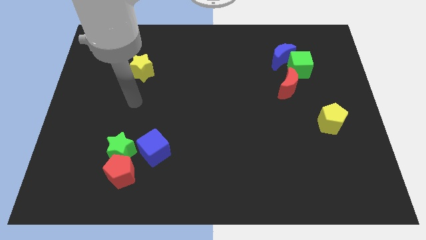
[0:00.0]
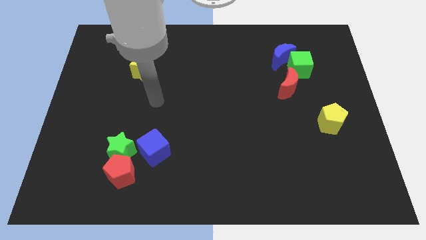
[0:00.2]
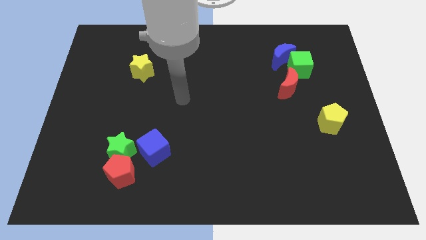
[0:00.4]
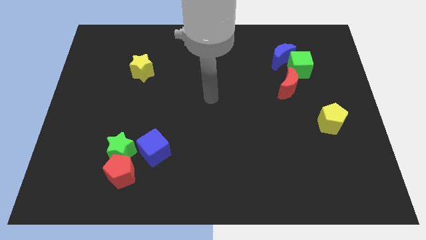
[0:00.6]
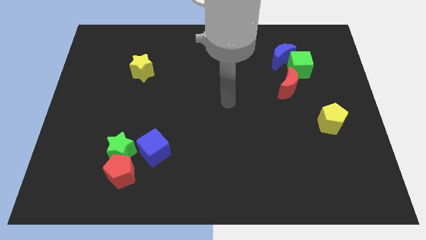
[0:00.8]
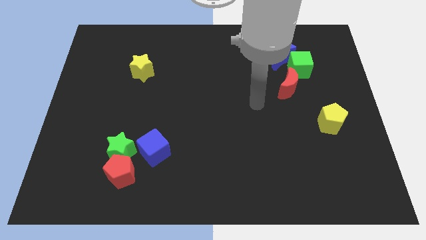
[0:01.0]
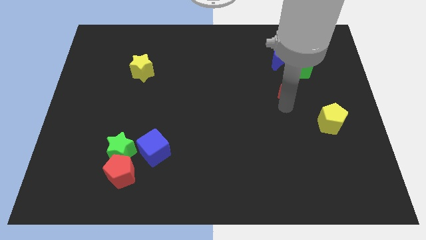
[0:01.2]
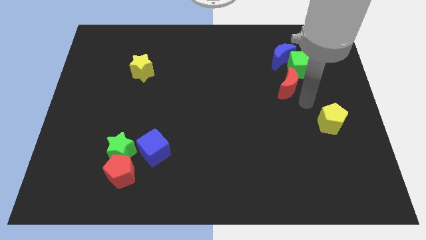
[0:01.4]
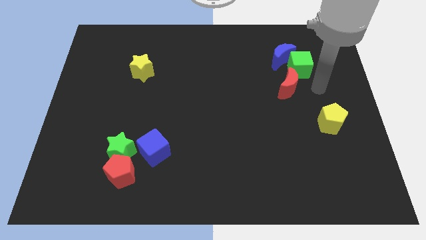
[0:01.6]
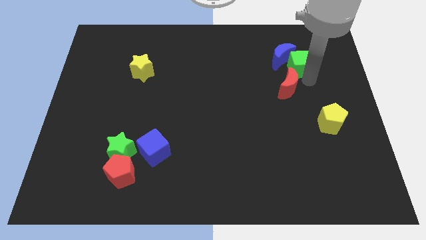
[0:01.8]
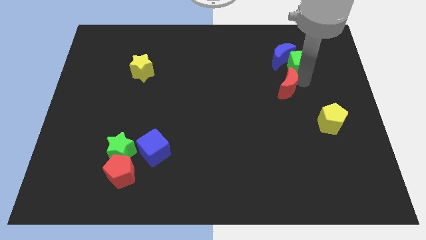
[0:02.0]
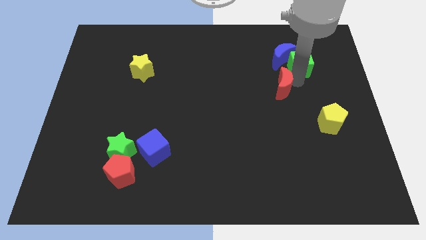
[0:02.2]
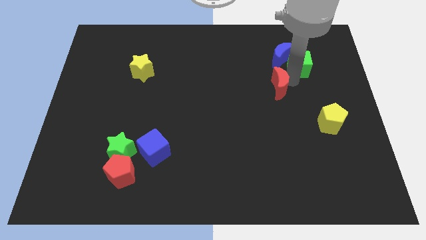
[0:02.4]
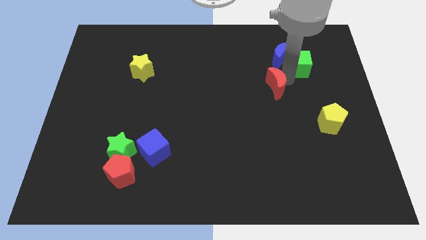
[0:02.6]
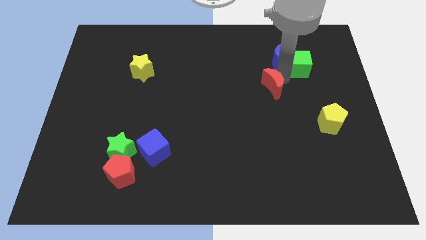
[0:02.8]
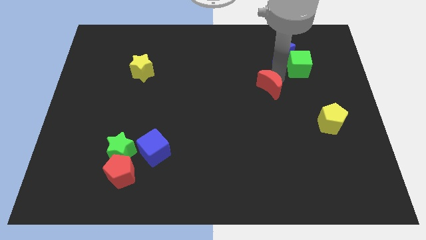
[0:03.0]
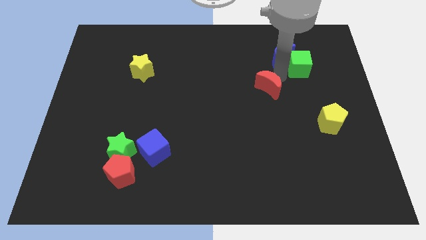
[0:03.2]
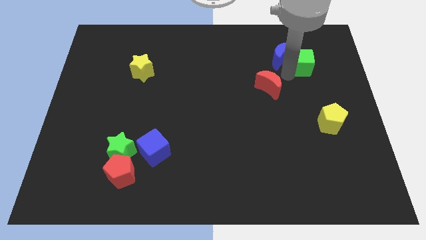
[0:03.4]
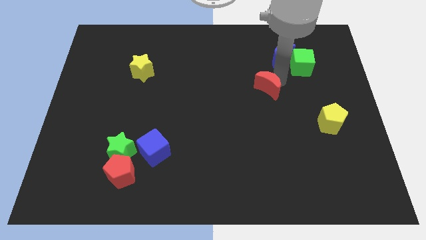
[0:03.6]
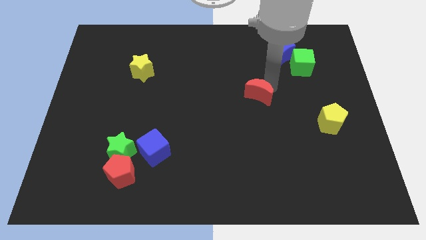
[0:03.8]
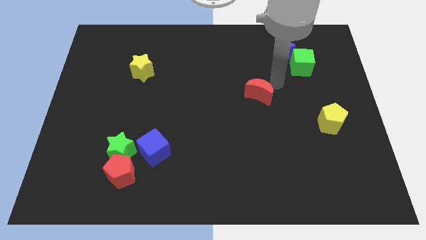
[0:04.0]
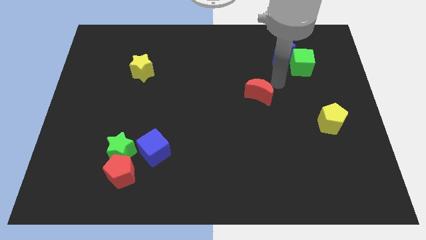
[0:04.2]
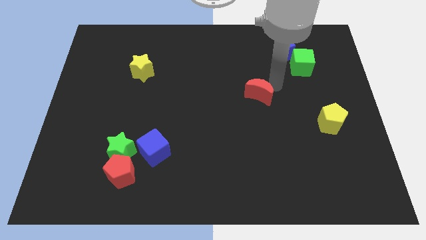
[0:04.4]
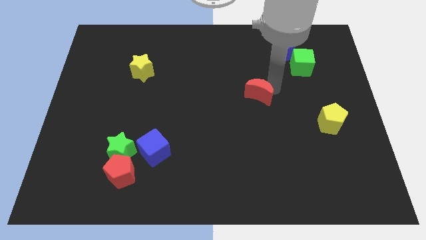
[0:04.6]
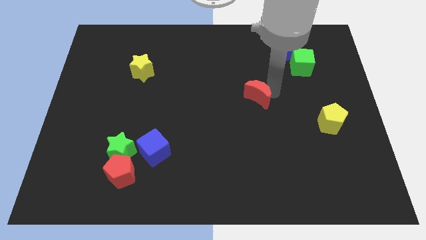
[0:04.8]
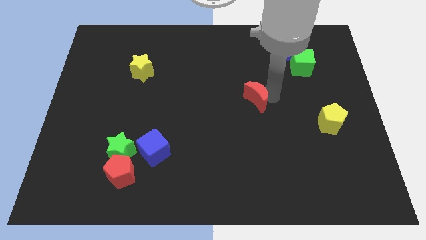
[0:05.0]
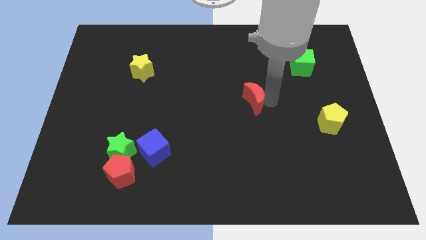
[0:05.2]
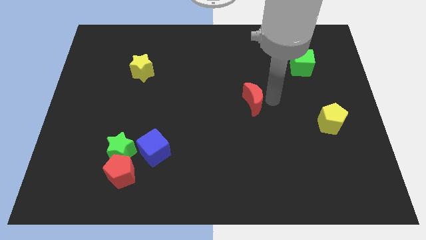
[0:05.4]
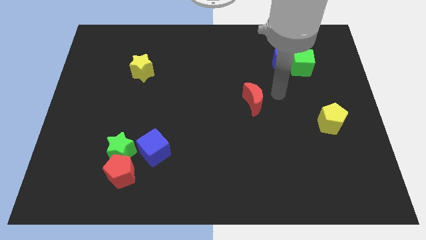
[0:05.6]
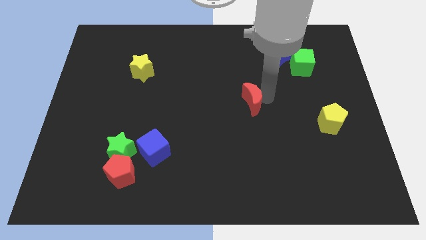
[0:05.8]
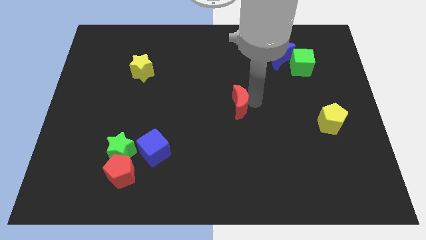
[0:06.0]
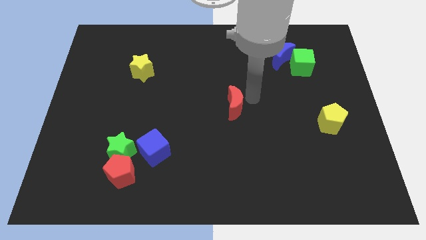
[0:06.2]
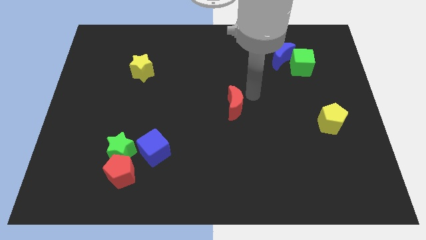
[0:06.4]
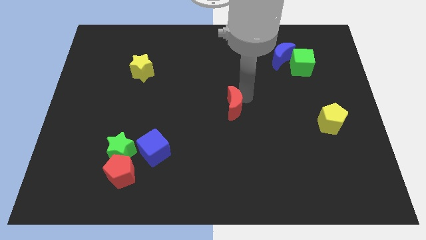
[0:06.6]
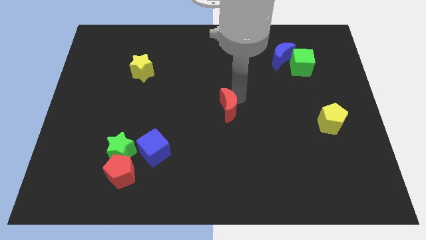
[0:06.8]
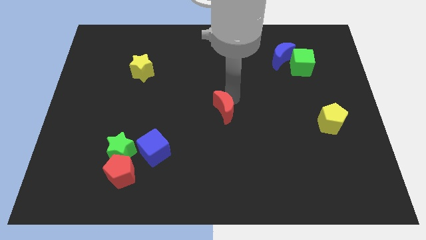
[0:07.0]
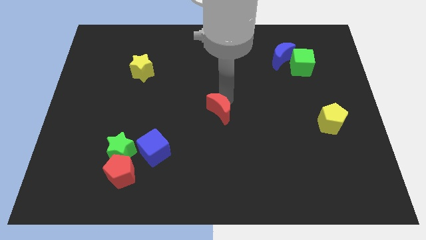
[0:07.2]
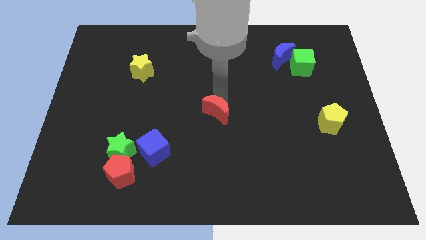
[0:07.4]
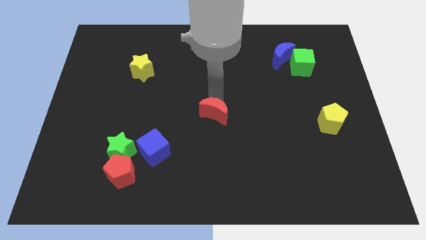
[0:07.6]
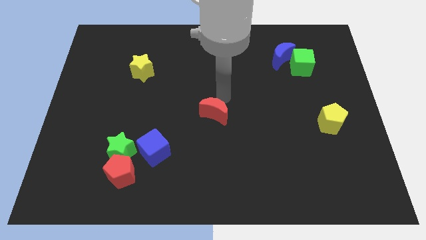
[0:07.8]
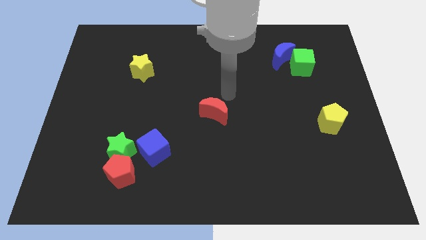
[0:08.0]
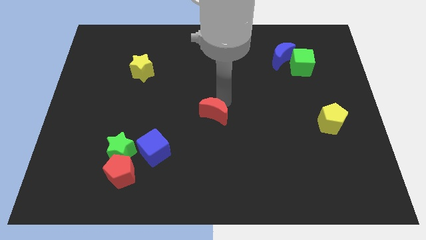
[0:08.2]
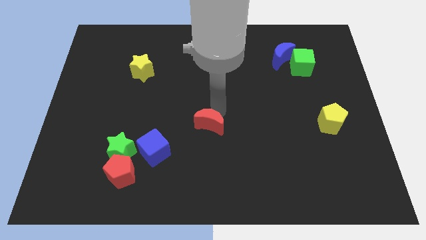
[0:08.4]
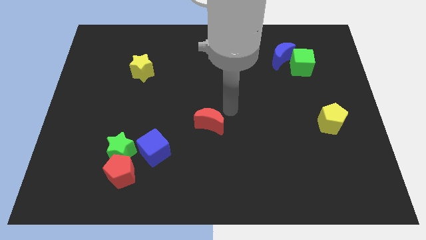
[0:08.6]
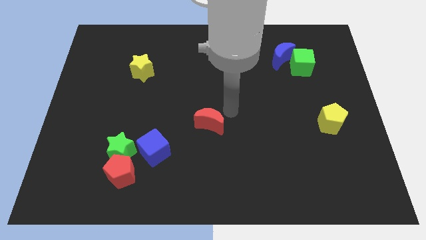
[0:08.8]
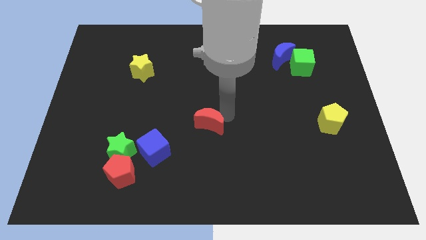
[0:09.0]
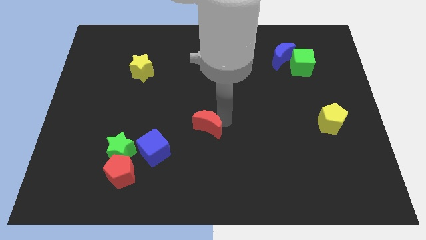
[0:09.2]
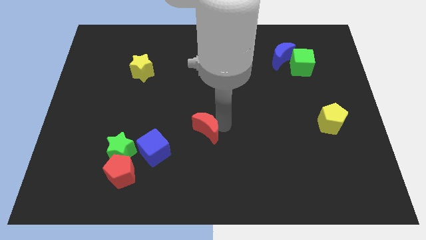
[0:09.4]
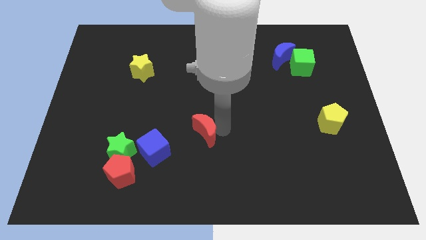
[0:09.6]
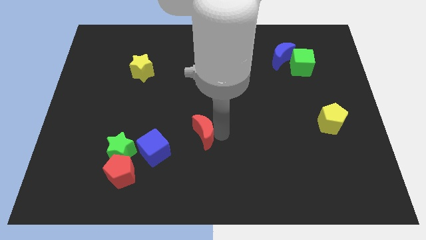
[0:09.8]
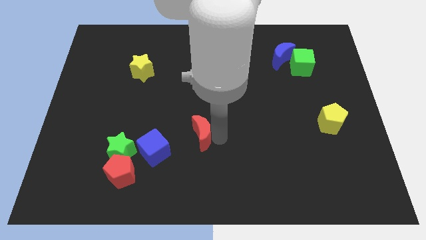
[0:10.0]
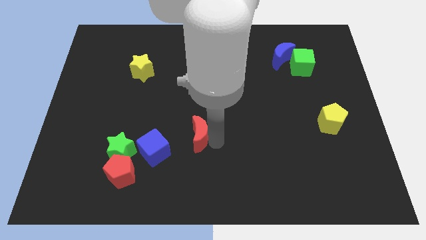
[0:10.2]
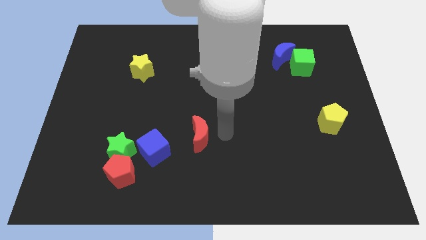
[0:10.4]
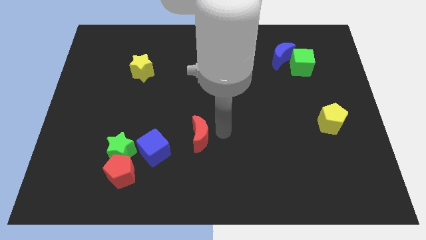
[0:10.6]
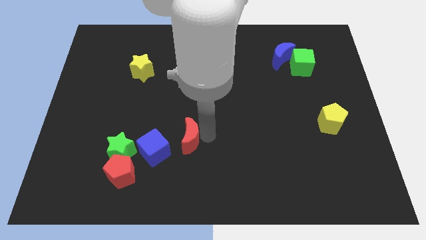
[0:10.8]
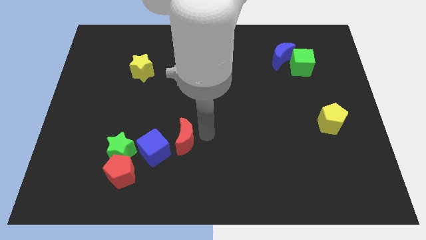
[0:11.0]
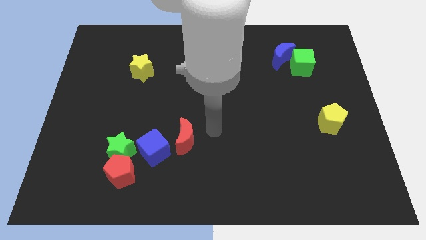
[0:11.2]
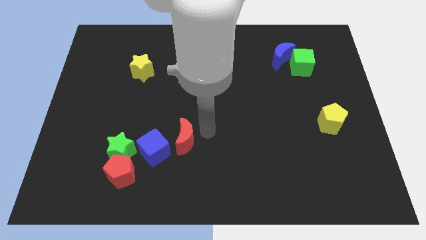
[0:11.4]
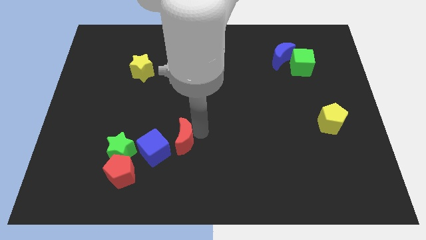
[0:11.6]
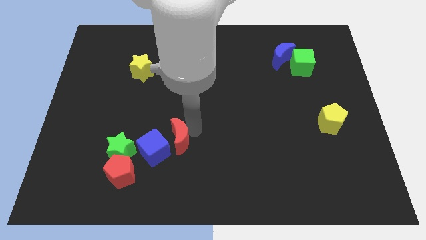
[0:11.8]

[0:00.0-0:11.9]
move the red moon close to the blue cube
